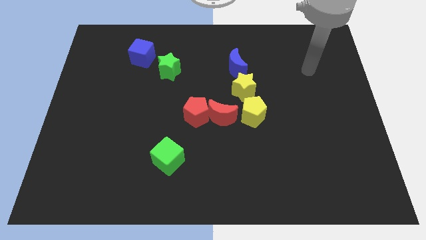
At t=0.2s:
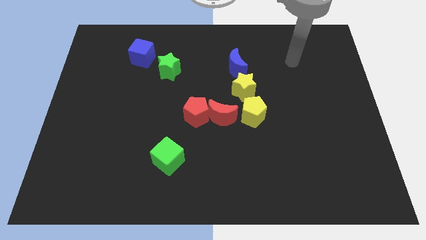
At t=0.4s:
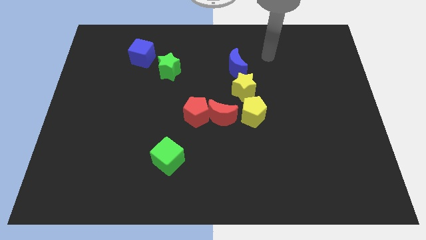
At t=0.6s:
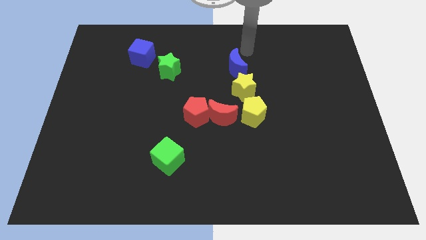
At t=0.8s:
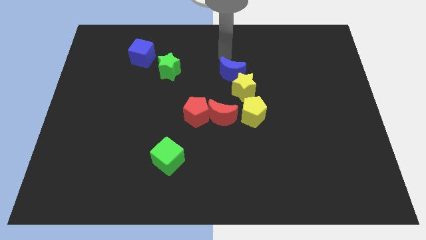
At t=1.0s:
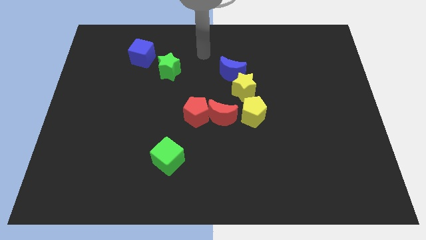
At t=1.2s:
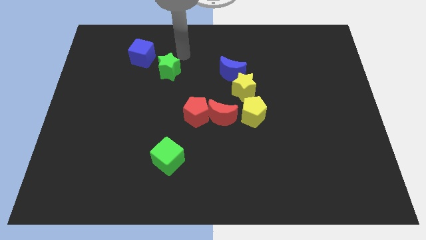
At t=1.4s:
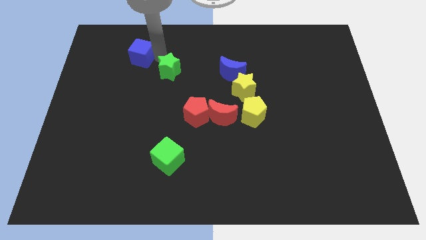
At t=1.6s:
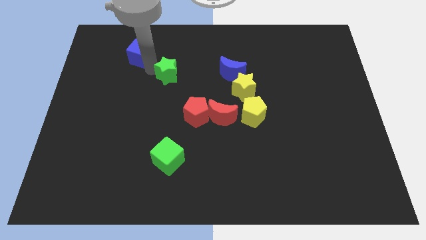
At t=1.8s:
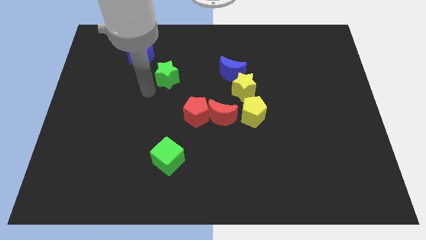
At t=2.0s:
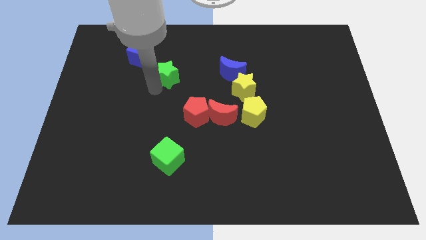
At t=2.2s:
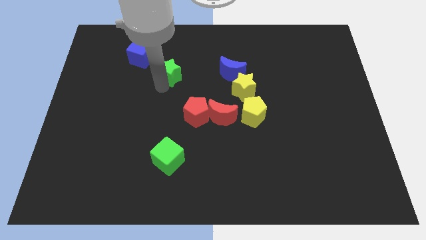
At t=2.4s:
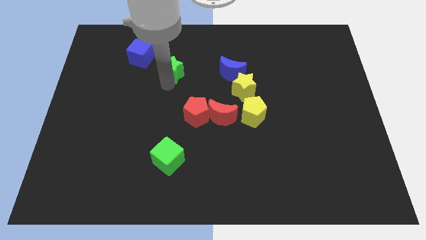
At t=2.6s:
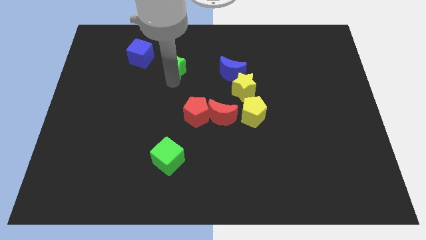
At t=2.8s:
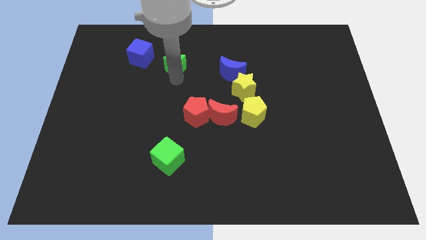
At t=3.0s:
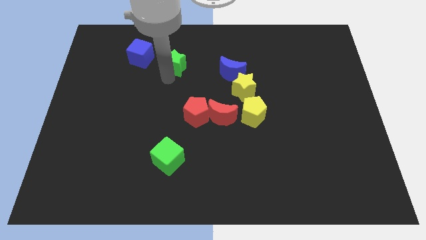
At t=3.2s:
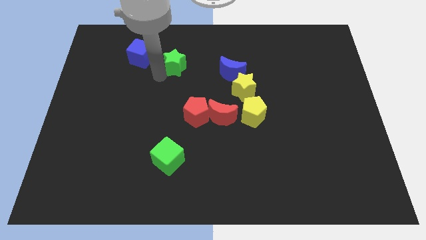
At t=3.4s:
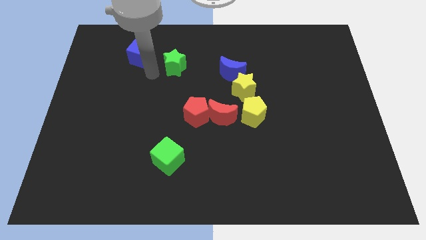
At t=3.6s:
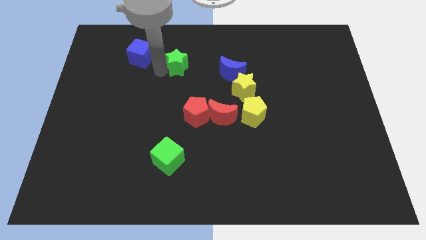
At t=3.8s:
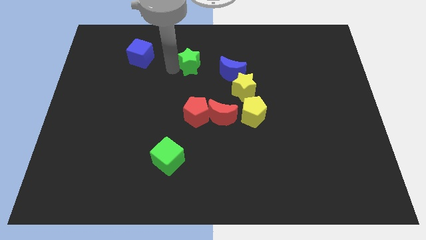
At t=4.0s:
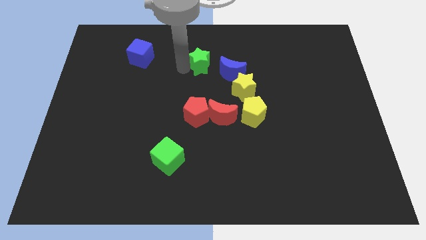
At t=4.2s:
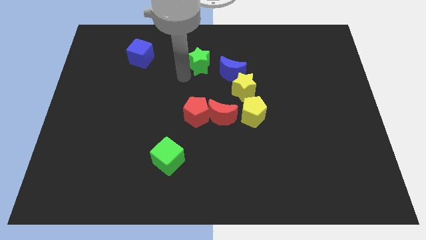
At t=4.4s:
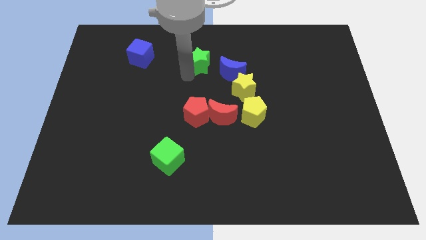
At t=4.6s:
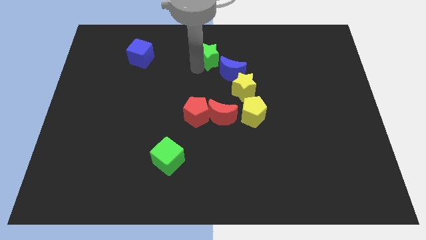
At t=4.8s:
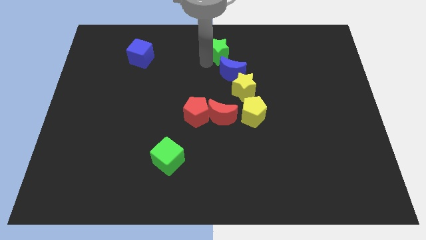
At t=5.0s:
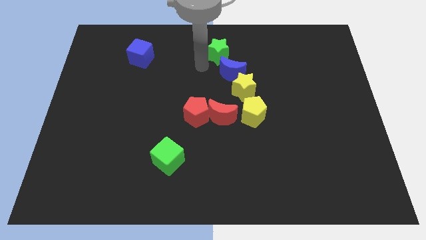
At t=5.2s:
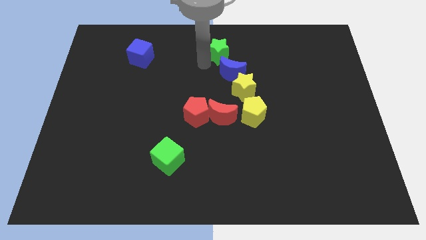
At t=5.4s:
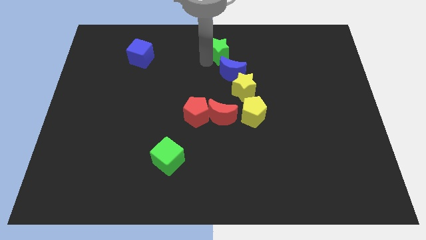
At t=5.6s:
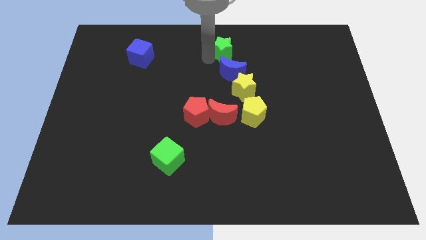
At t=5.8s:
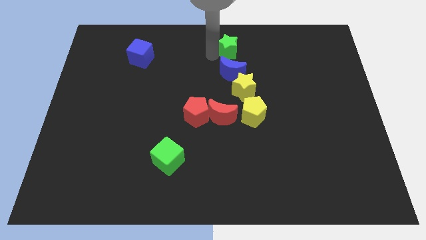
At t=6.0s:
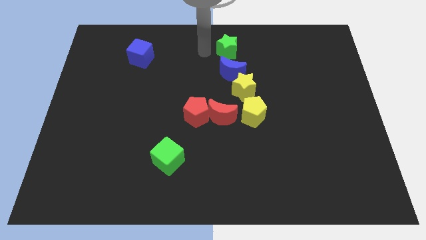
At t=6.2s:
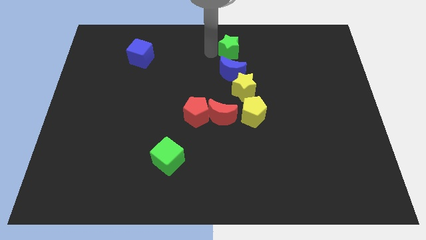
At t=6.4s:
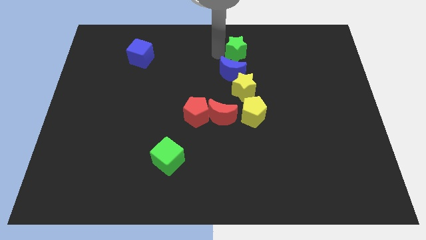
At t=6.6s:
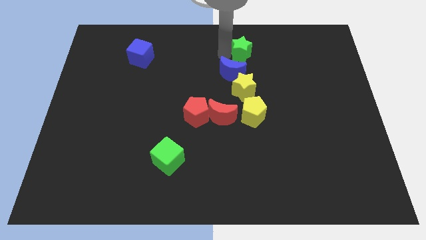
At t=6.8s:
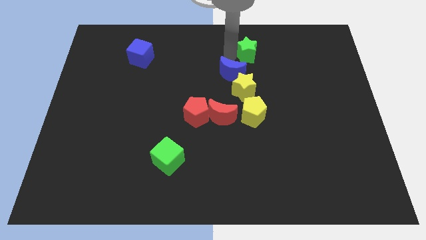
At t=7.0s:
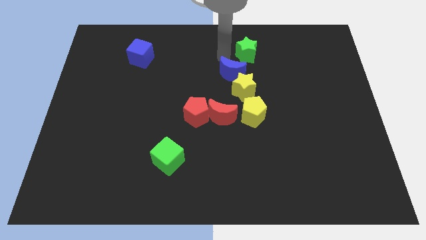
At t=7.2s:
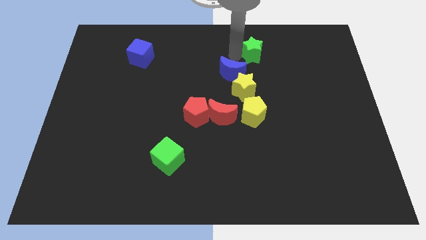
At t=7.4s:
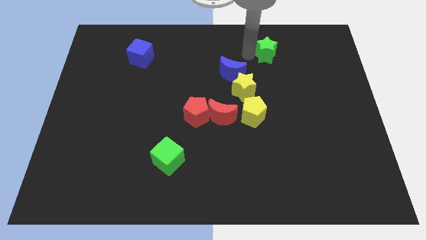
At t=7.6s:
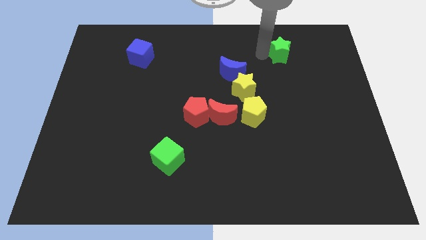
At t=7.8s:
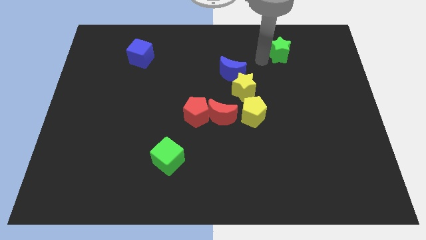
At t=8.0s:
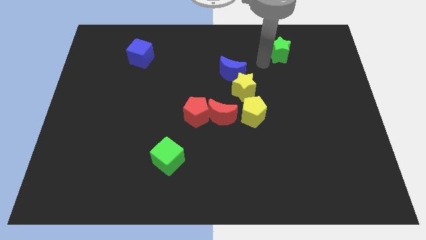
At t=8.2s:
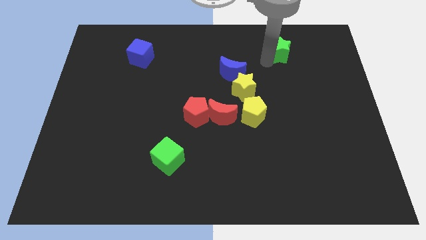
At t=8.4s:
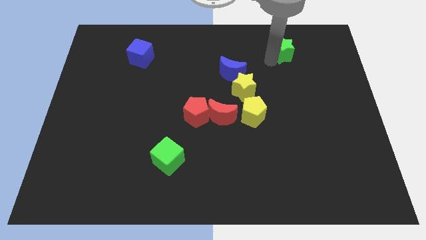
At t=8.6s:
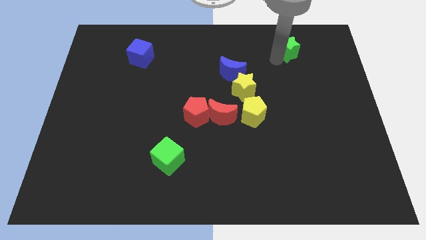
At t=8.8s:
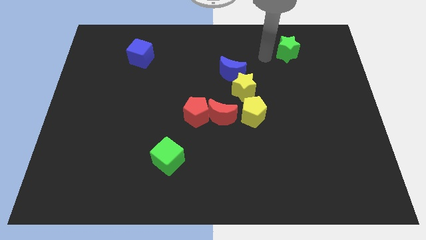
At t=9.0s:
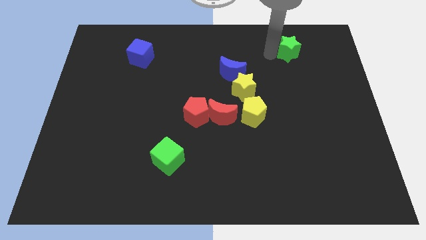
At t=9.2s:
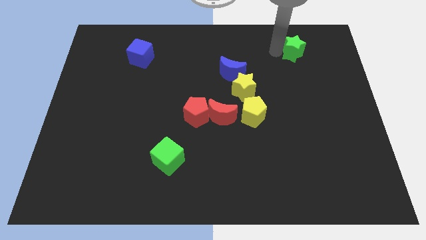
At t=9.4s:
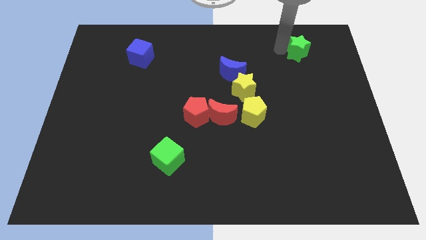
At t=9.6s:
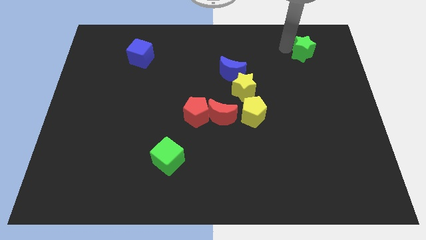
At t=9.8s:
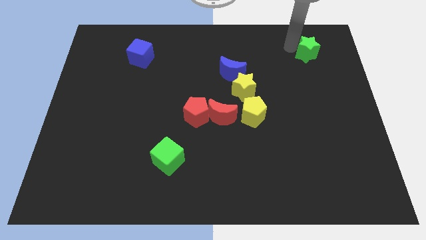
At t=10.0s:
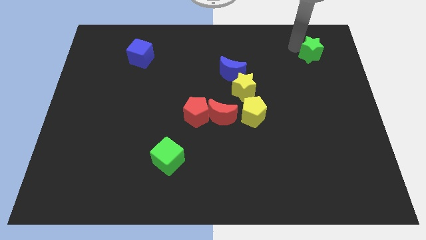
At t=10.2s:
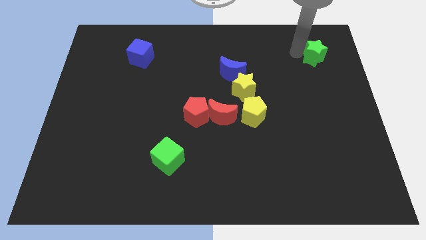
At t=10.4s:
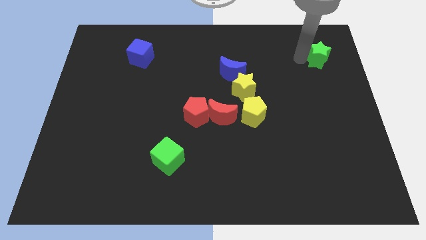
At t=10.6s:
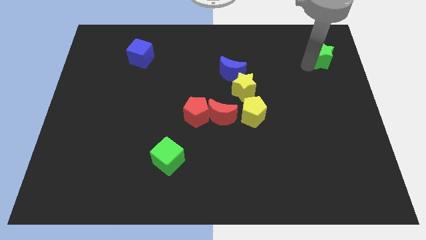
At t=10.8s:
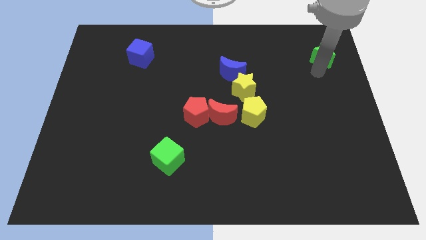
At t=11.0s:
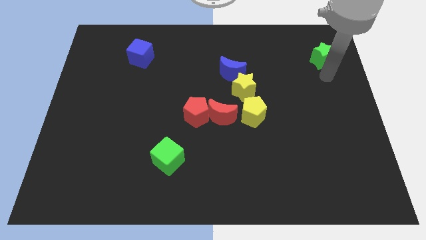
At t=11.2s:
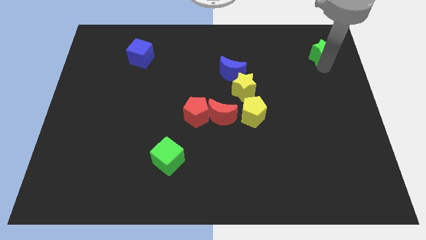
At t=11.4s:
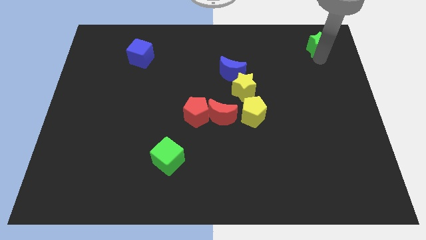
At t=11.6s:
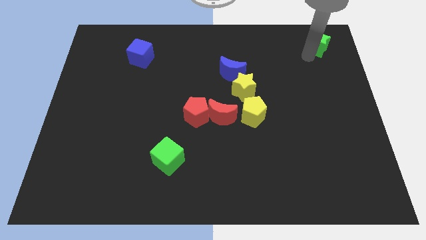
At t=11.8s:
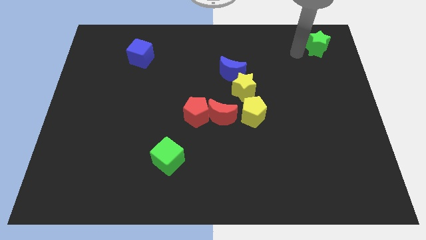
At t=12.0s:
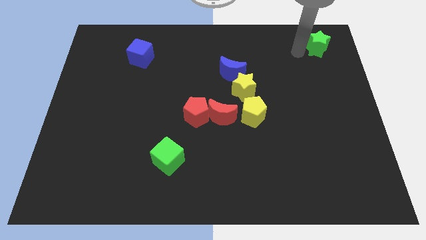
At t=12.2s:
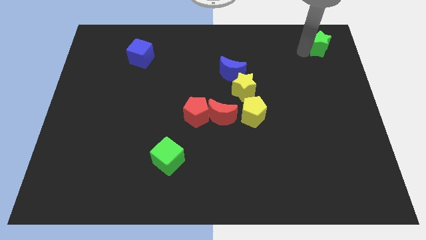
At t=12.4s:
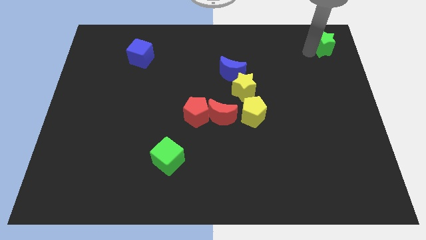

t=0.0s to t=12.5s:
move the green star to the top right

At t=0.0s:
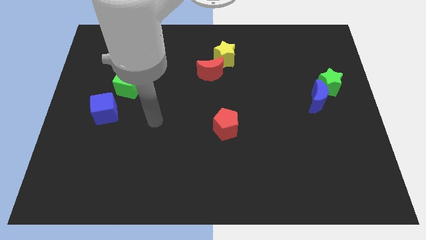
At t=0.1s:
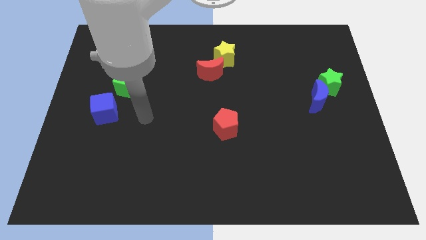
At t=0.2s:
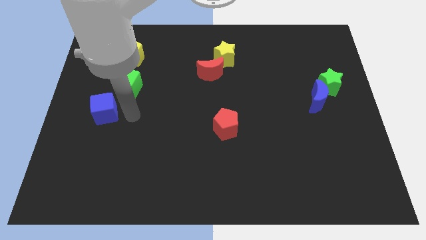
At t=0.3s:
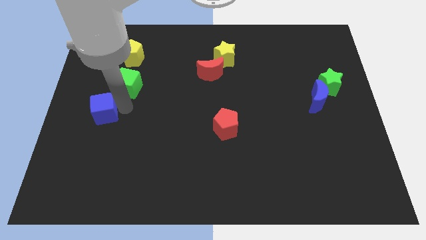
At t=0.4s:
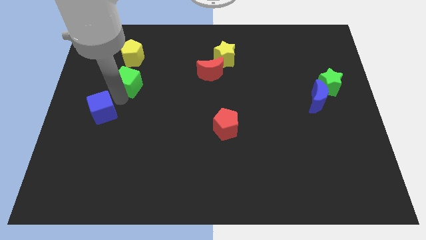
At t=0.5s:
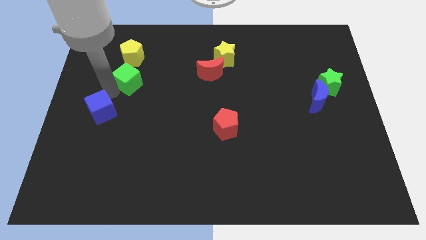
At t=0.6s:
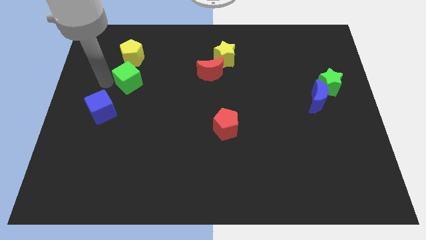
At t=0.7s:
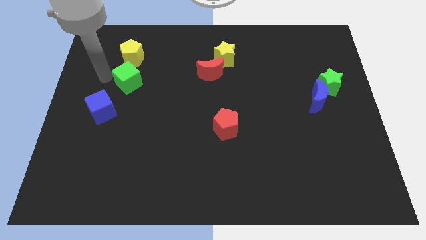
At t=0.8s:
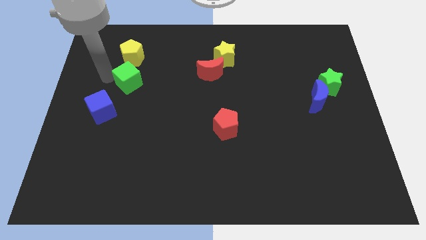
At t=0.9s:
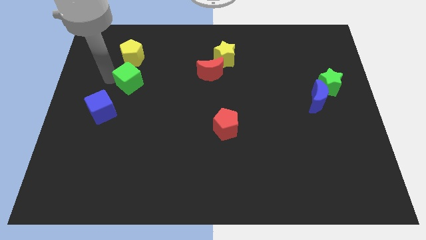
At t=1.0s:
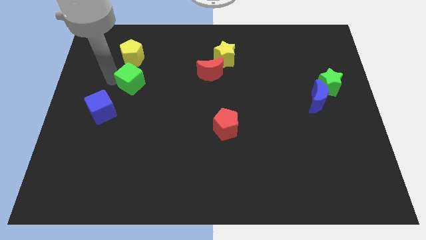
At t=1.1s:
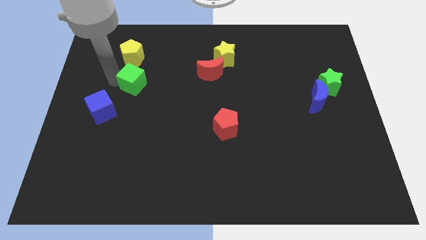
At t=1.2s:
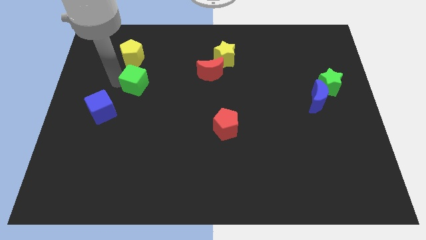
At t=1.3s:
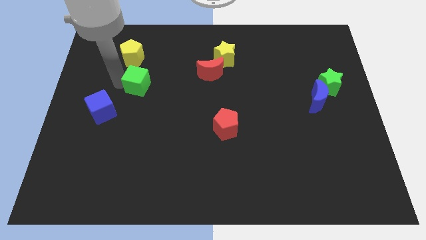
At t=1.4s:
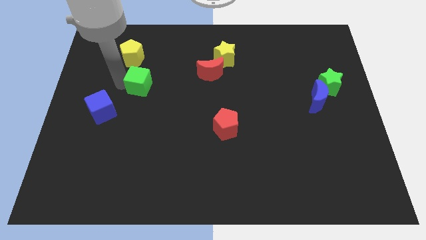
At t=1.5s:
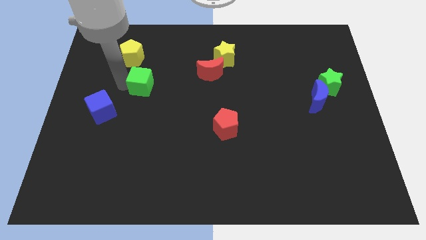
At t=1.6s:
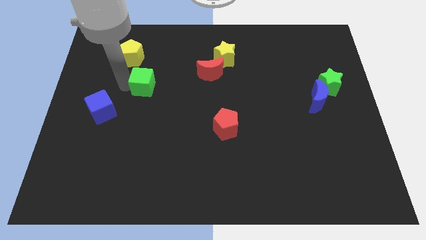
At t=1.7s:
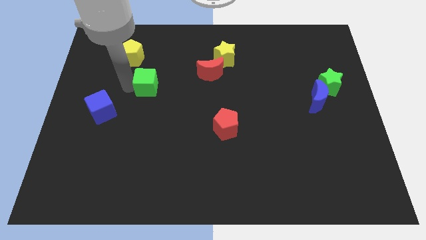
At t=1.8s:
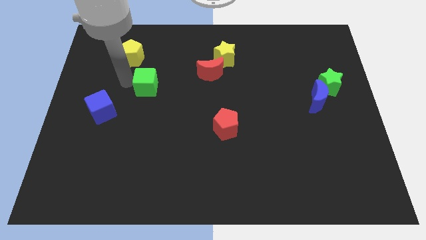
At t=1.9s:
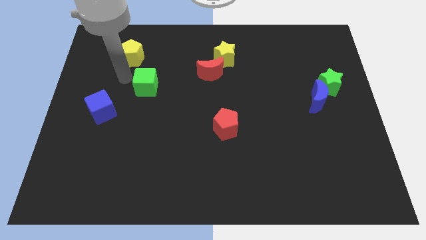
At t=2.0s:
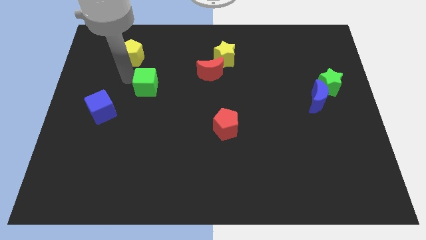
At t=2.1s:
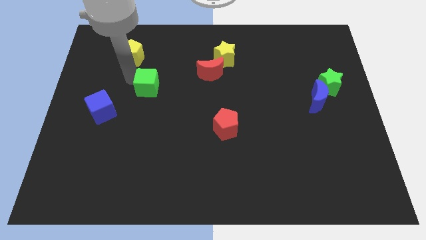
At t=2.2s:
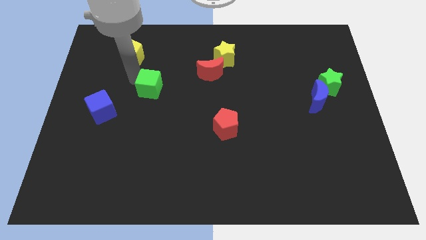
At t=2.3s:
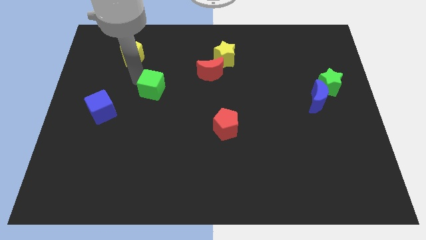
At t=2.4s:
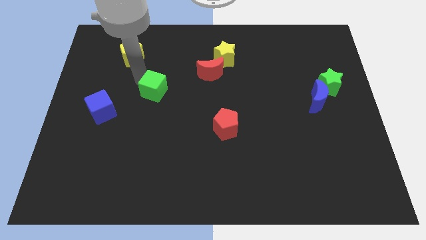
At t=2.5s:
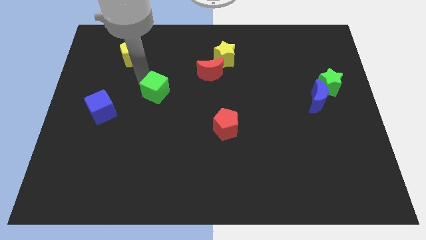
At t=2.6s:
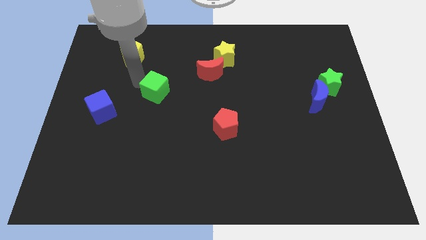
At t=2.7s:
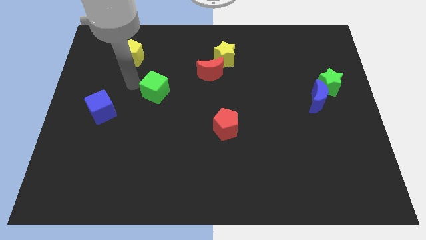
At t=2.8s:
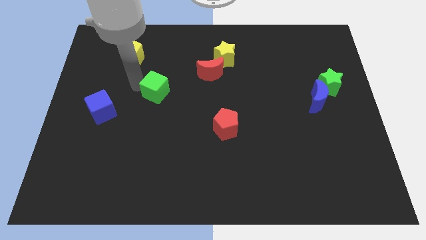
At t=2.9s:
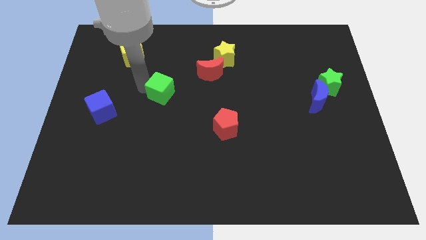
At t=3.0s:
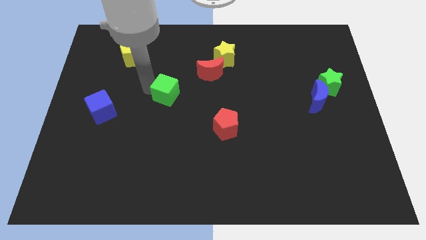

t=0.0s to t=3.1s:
slide the green cube to the center of the board
